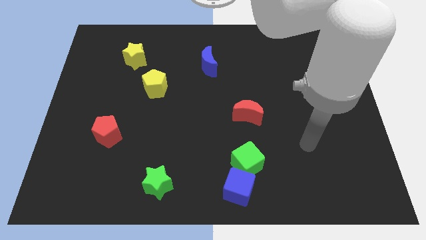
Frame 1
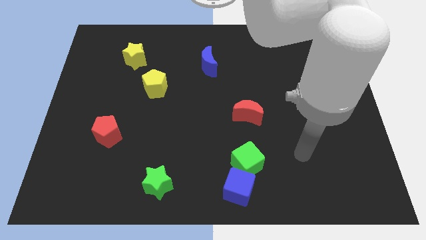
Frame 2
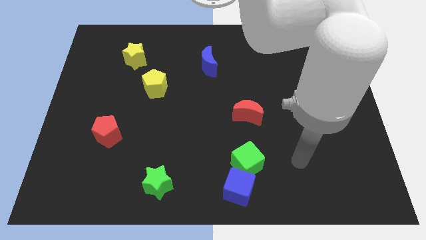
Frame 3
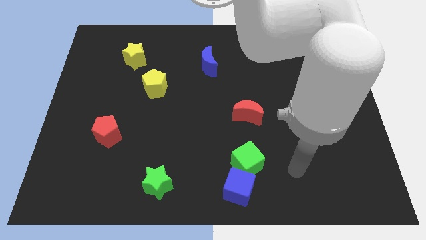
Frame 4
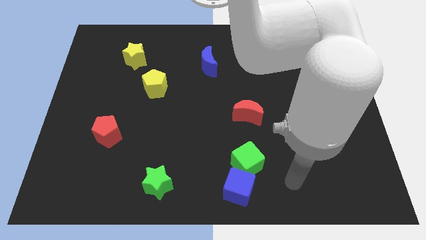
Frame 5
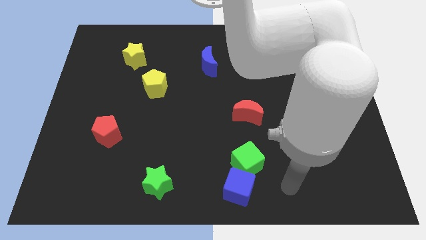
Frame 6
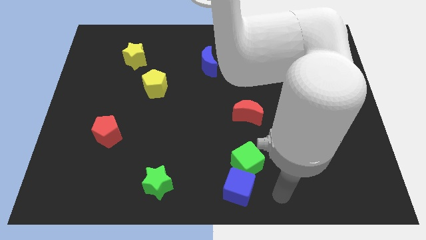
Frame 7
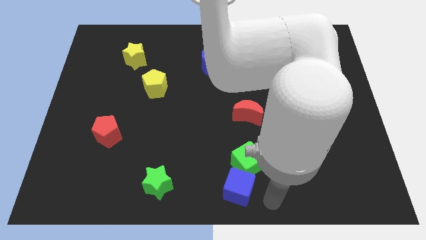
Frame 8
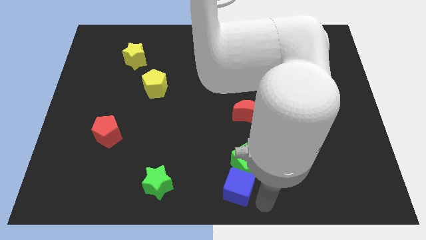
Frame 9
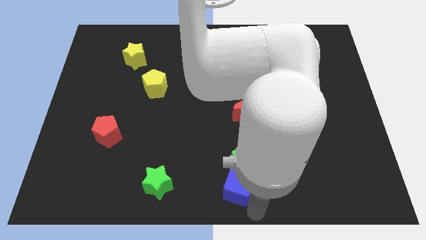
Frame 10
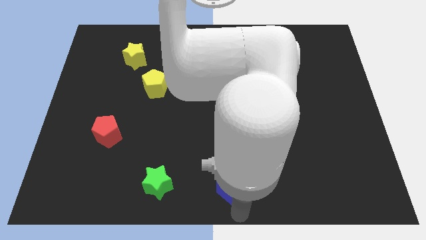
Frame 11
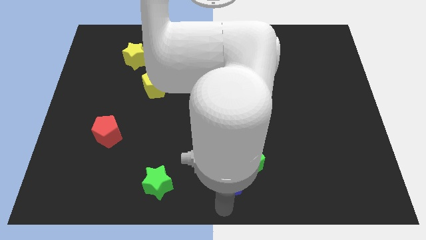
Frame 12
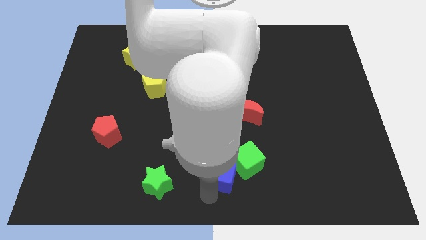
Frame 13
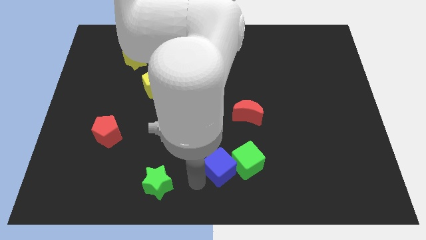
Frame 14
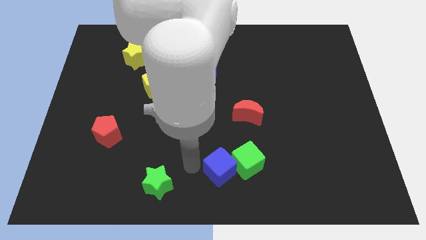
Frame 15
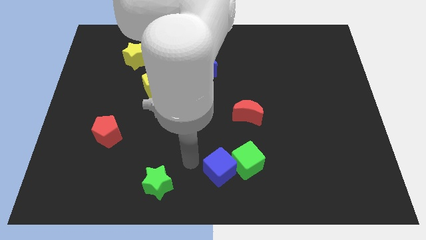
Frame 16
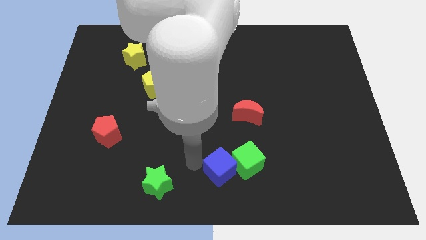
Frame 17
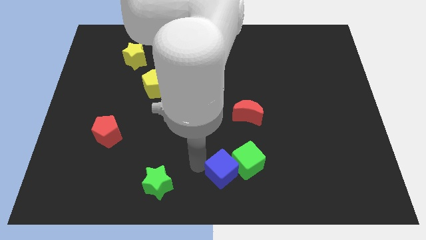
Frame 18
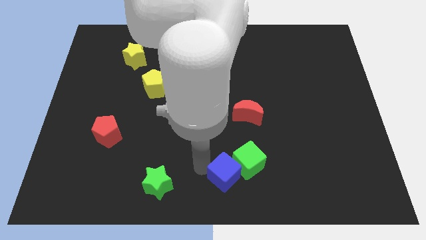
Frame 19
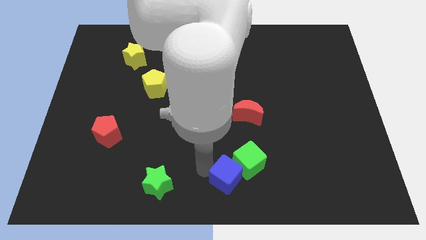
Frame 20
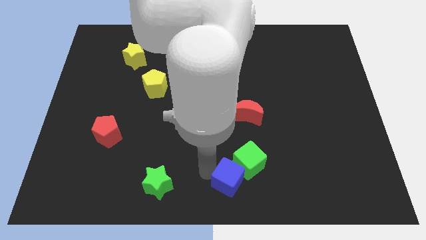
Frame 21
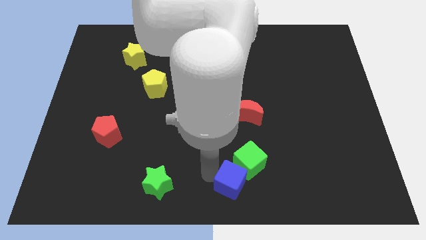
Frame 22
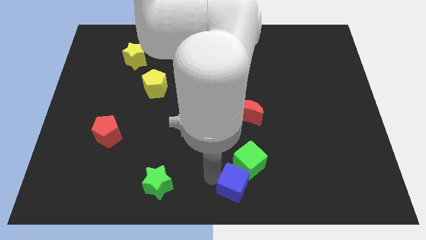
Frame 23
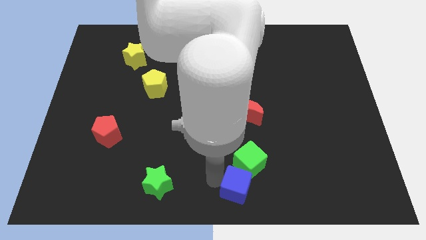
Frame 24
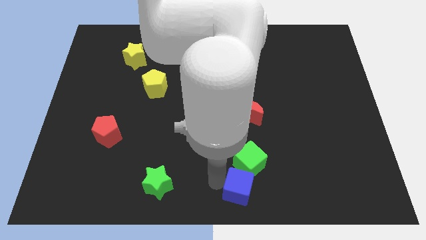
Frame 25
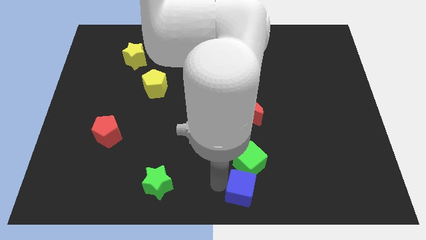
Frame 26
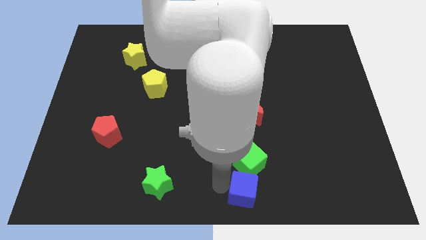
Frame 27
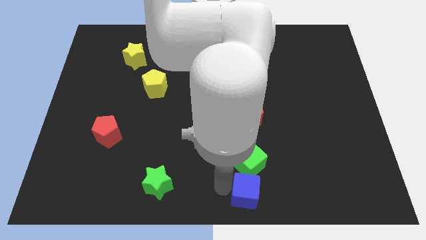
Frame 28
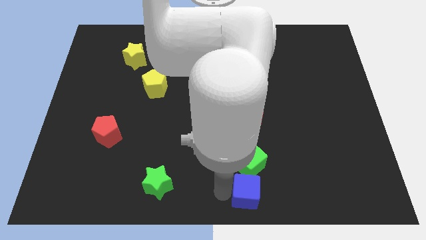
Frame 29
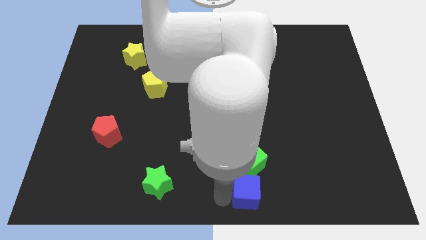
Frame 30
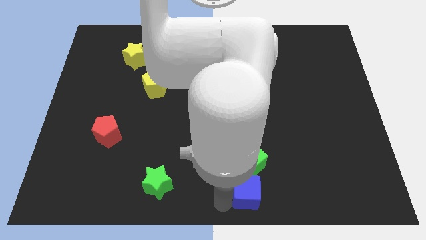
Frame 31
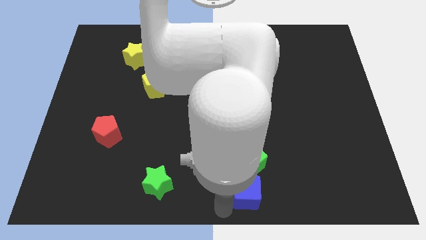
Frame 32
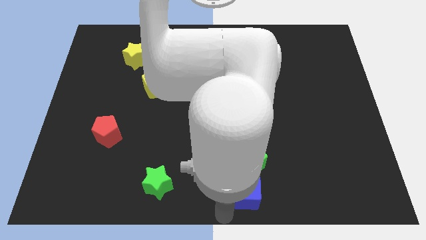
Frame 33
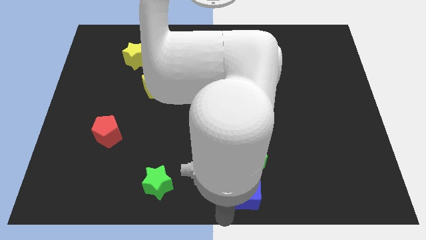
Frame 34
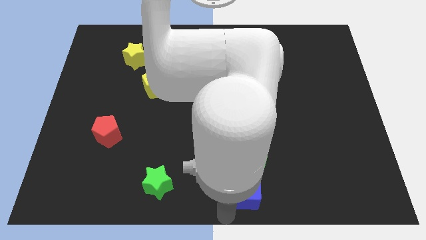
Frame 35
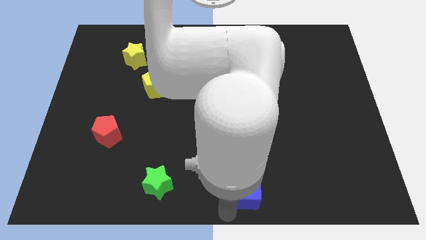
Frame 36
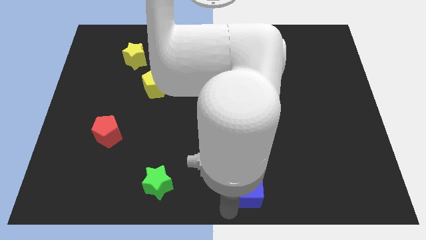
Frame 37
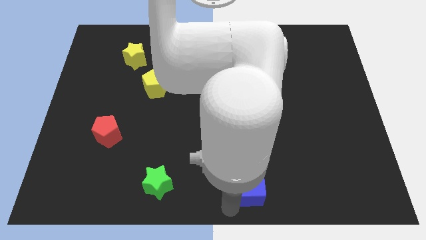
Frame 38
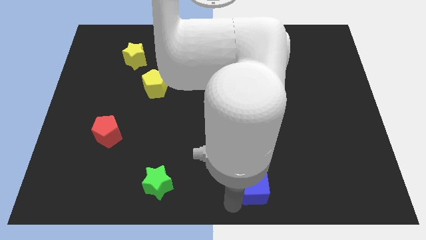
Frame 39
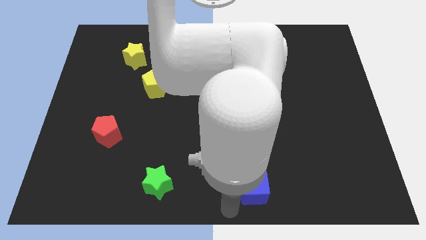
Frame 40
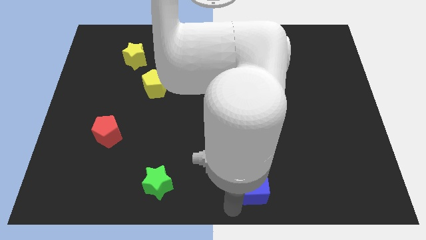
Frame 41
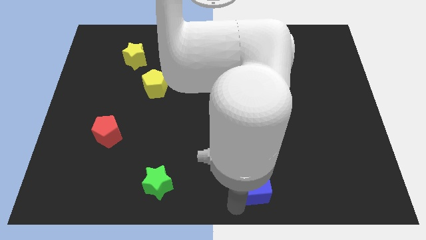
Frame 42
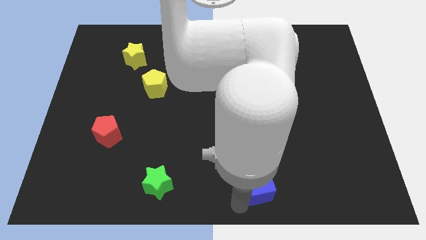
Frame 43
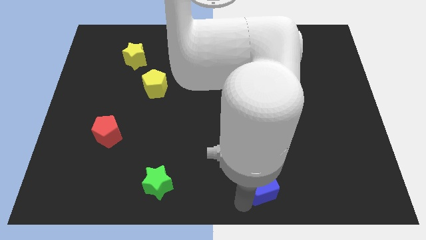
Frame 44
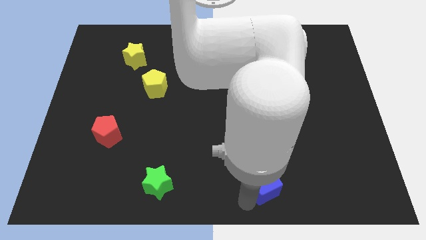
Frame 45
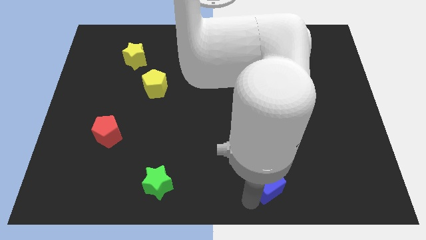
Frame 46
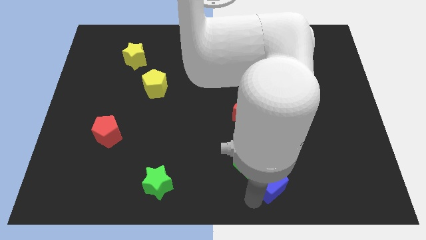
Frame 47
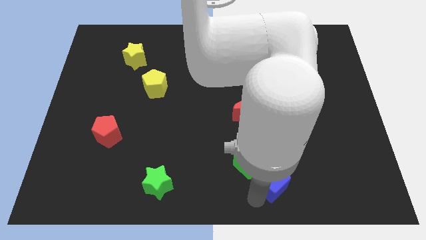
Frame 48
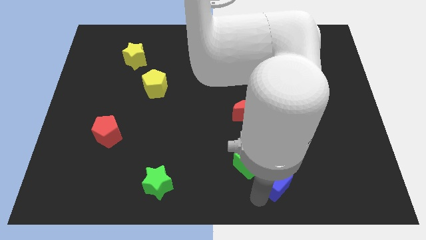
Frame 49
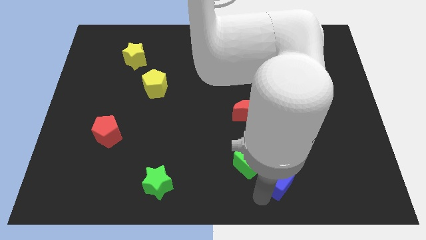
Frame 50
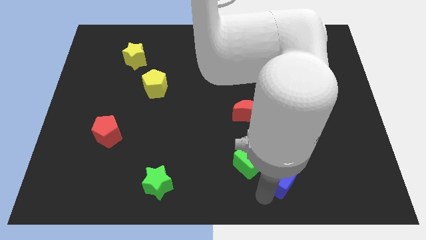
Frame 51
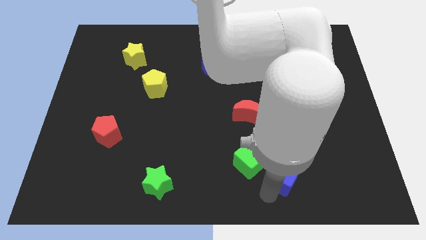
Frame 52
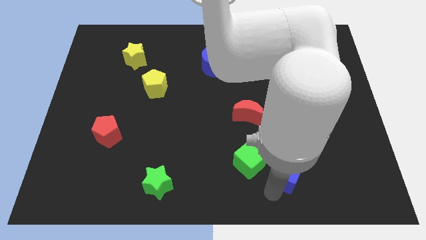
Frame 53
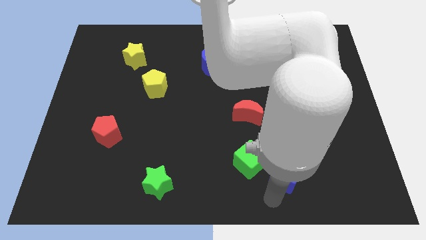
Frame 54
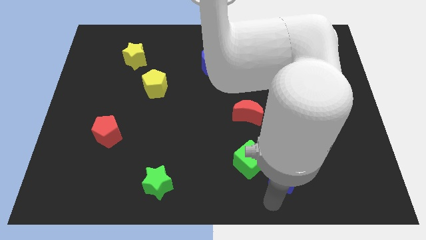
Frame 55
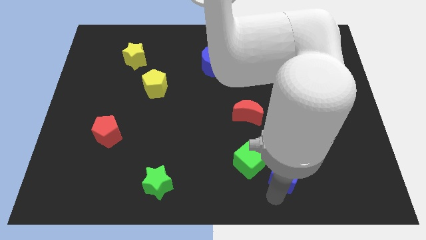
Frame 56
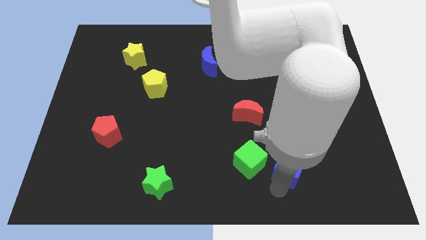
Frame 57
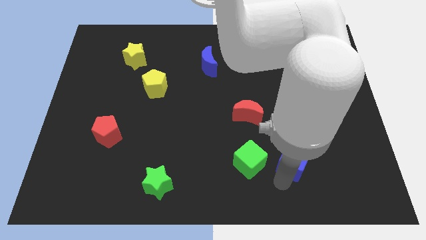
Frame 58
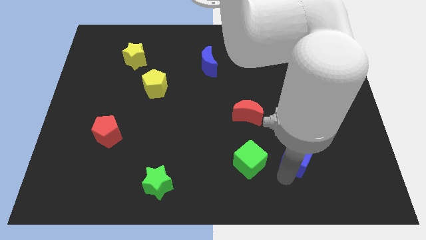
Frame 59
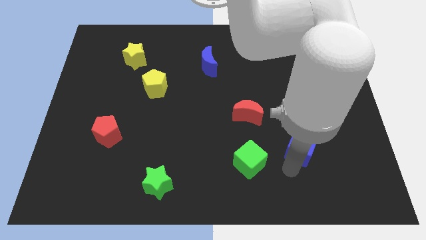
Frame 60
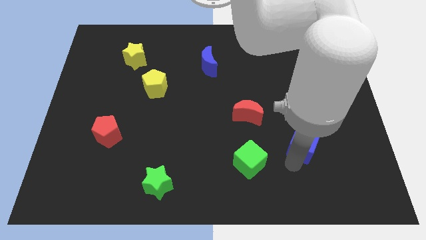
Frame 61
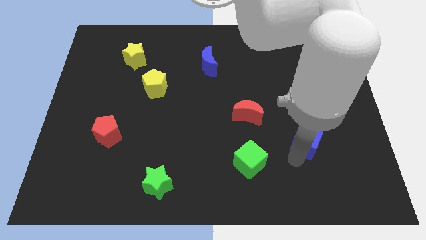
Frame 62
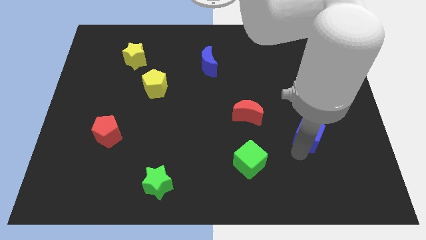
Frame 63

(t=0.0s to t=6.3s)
push the blue cube upwards and to the right diagonally

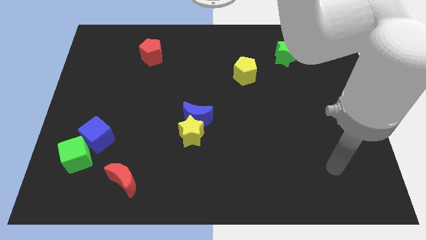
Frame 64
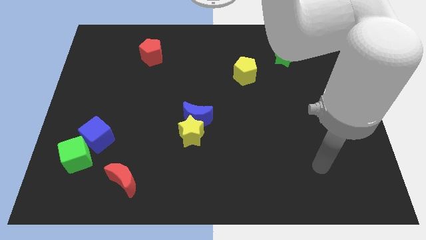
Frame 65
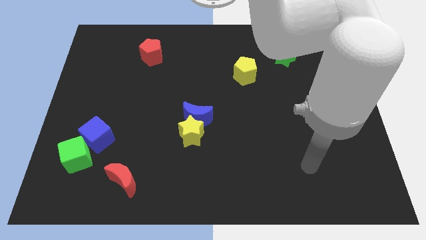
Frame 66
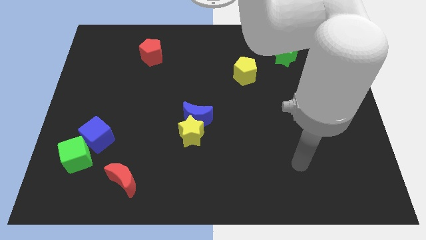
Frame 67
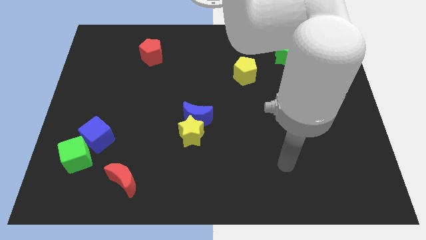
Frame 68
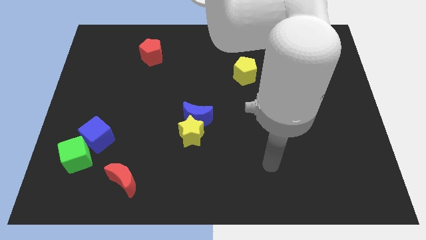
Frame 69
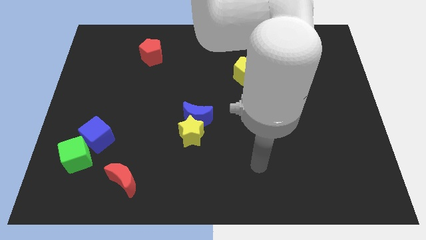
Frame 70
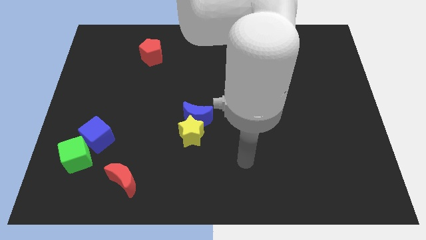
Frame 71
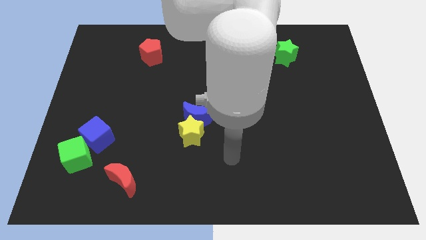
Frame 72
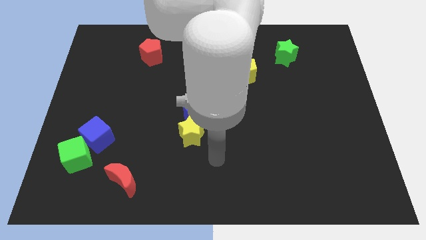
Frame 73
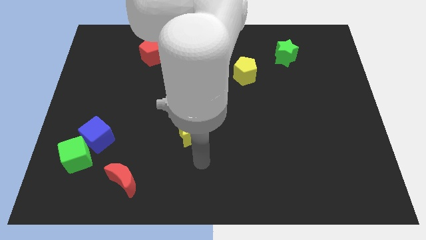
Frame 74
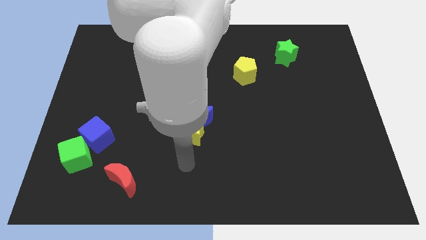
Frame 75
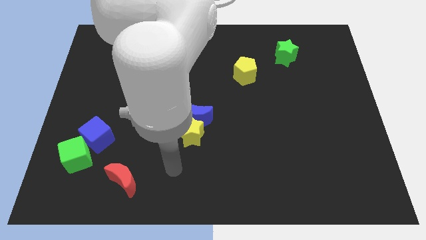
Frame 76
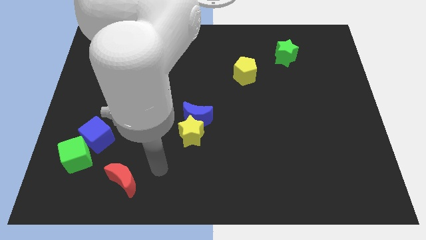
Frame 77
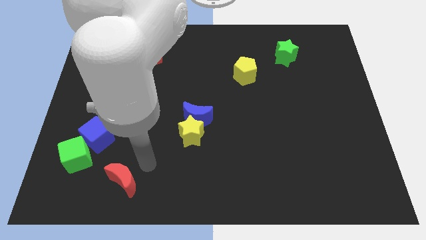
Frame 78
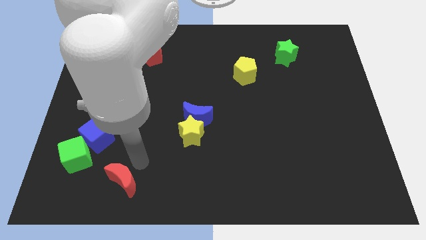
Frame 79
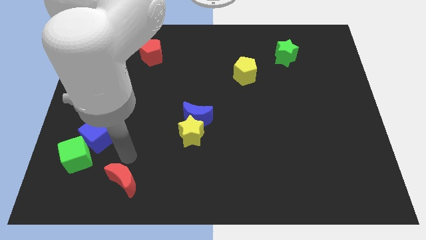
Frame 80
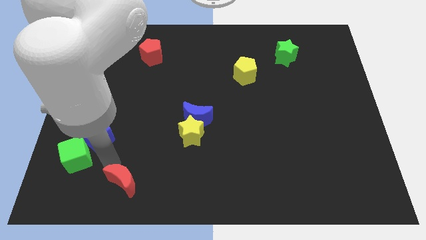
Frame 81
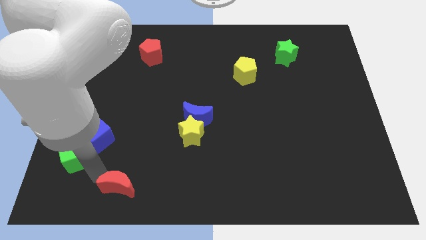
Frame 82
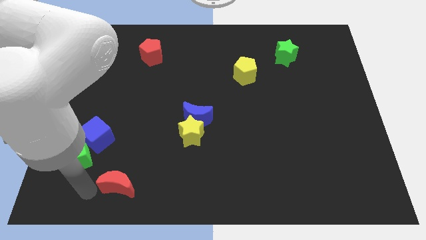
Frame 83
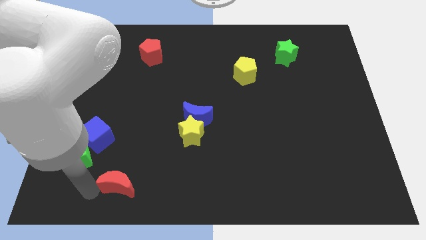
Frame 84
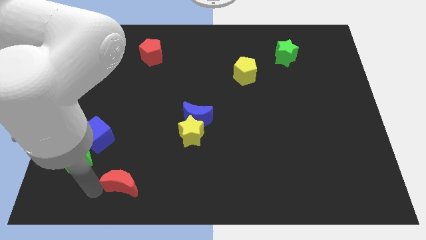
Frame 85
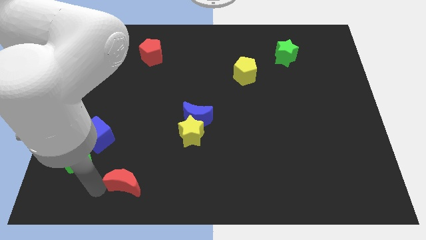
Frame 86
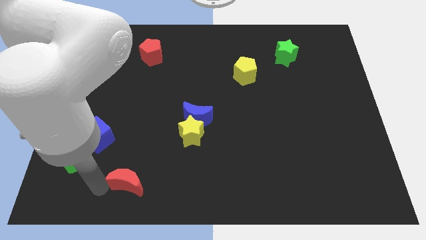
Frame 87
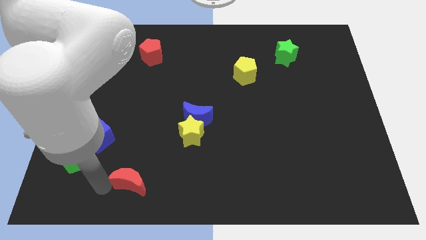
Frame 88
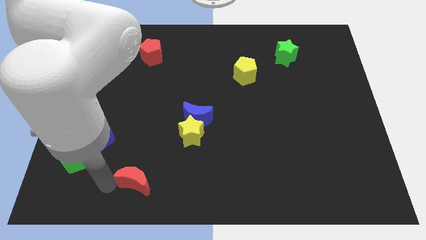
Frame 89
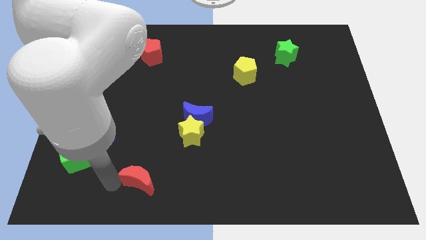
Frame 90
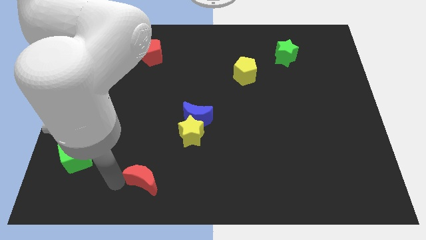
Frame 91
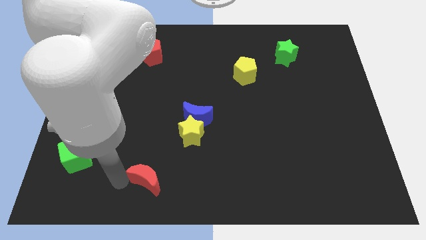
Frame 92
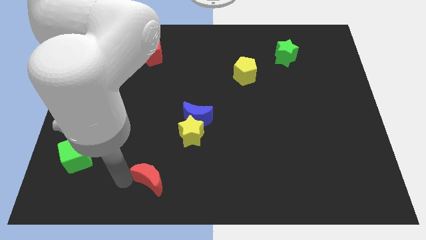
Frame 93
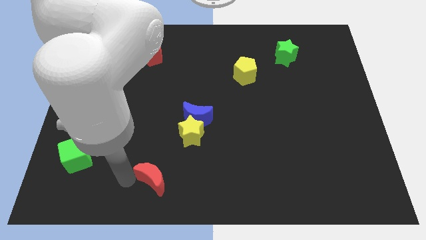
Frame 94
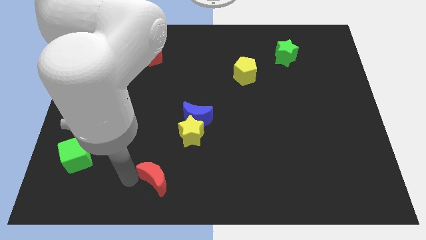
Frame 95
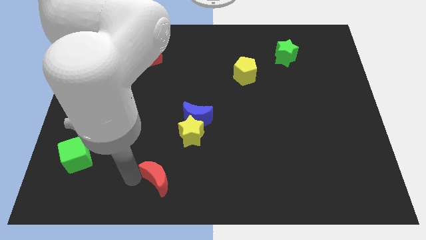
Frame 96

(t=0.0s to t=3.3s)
push the red moon slightly to the right
